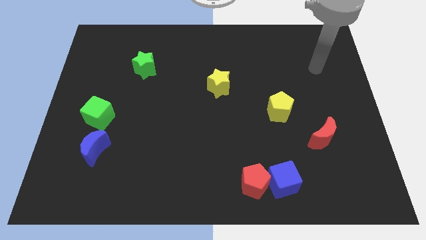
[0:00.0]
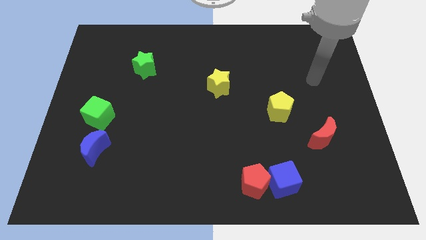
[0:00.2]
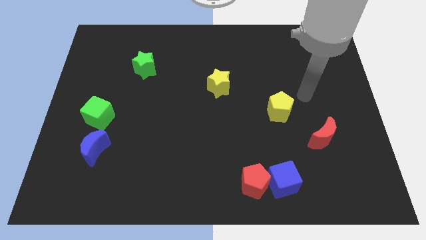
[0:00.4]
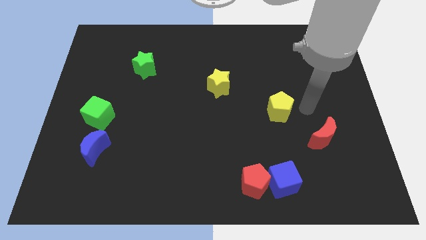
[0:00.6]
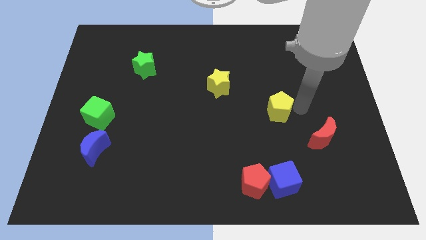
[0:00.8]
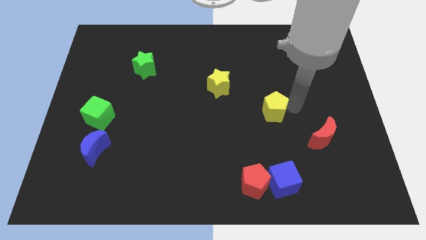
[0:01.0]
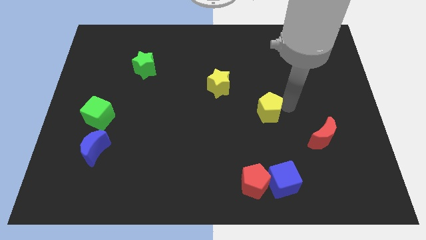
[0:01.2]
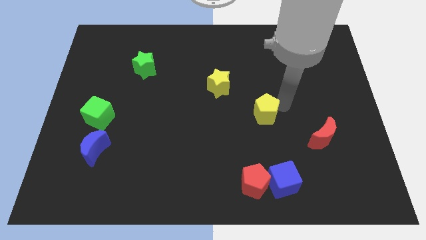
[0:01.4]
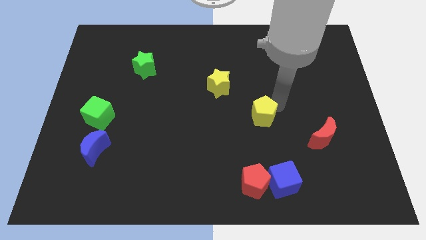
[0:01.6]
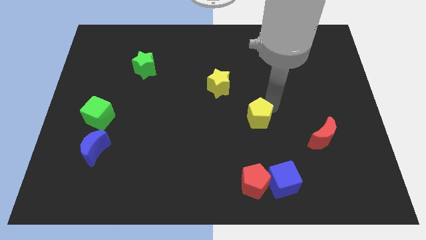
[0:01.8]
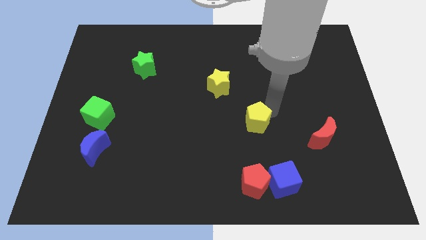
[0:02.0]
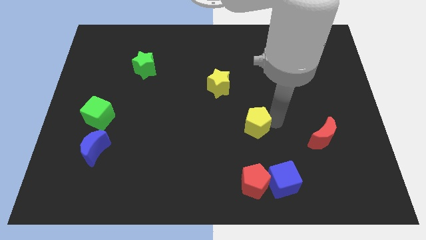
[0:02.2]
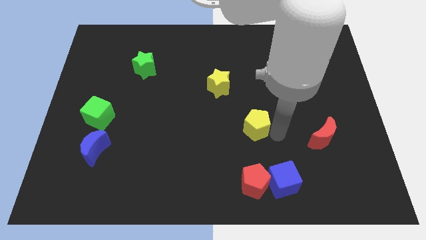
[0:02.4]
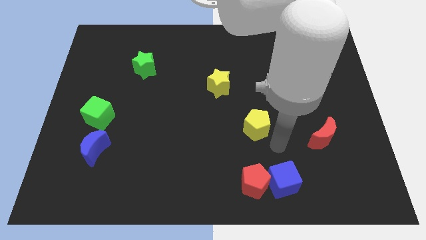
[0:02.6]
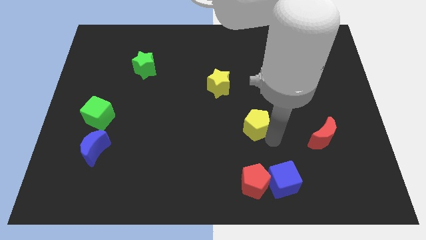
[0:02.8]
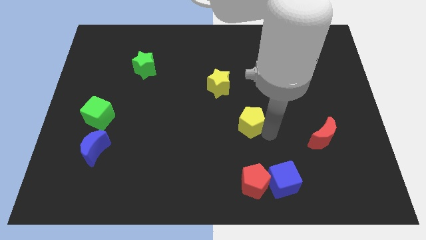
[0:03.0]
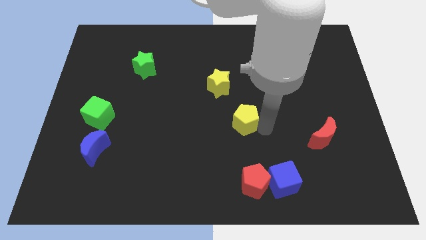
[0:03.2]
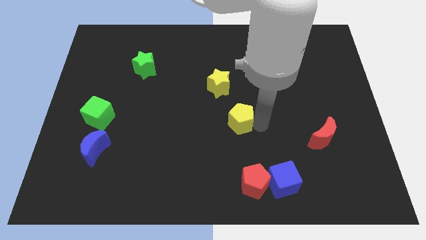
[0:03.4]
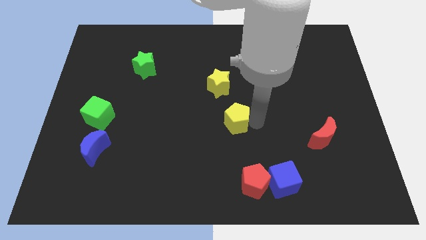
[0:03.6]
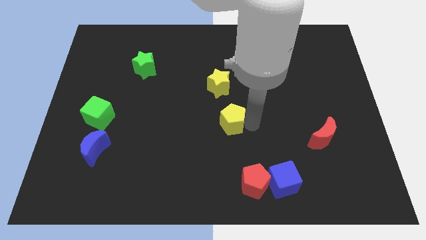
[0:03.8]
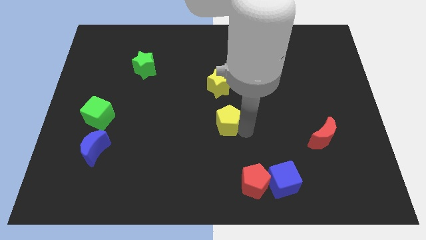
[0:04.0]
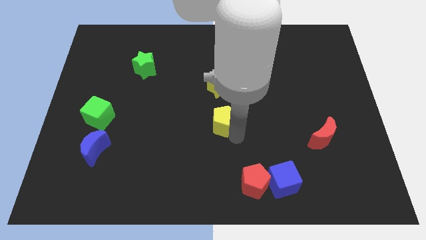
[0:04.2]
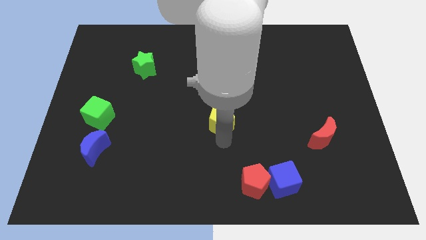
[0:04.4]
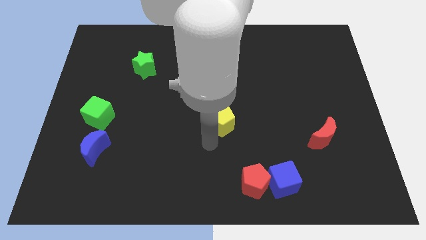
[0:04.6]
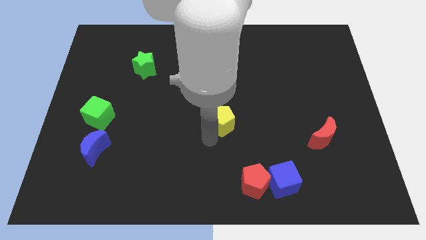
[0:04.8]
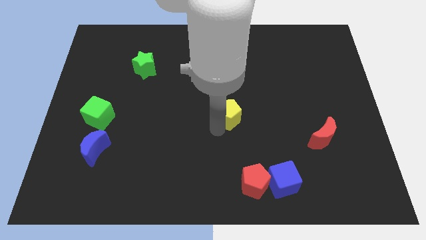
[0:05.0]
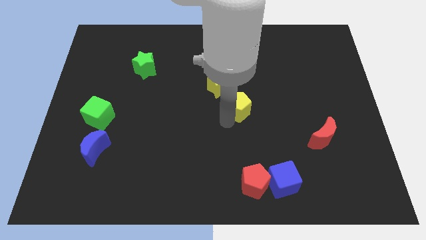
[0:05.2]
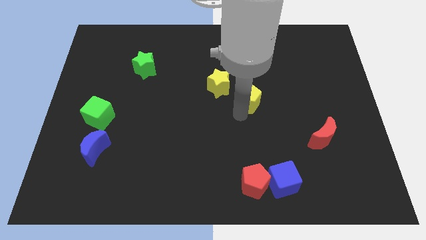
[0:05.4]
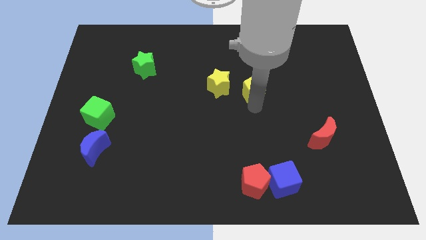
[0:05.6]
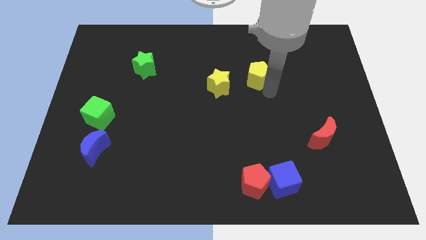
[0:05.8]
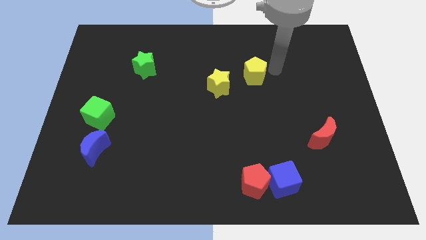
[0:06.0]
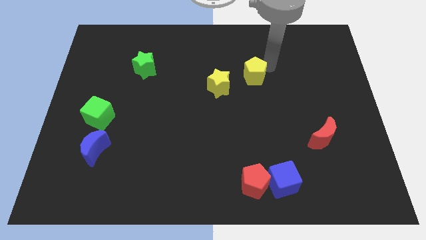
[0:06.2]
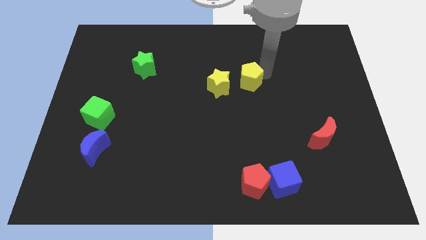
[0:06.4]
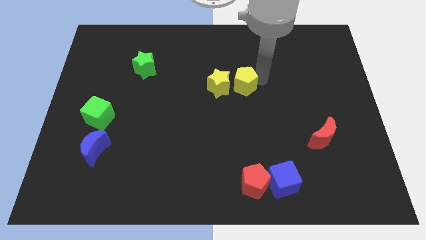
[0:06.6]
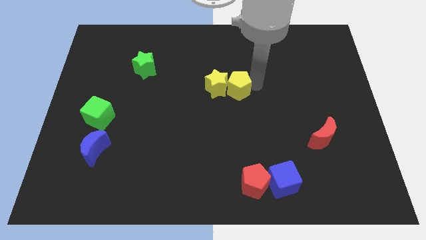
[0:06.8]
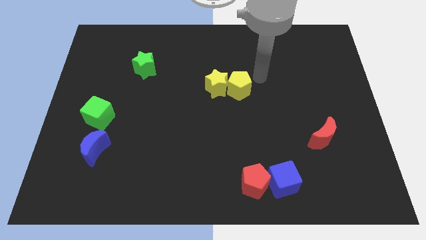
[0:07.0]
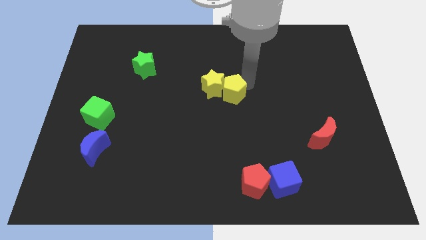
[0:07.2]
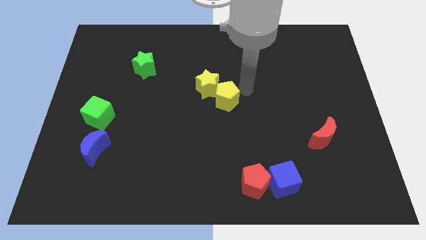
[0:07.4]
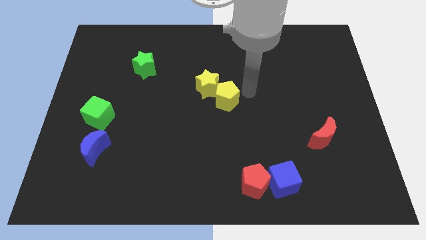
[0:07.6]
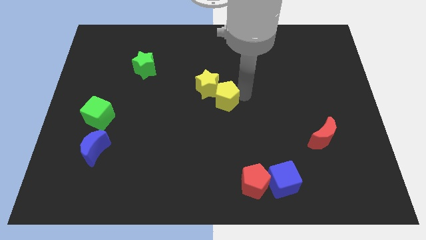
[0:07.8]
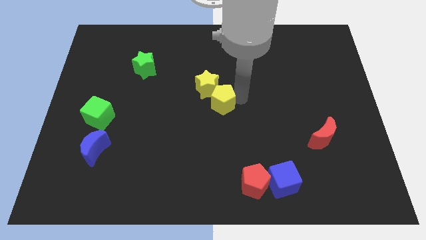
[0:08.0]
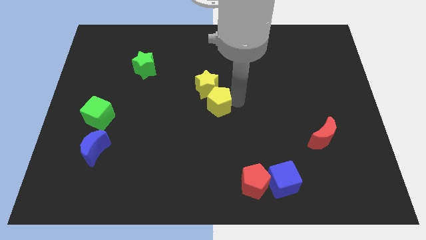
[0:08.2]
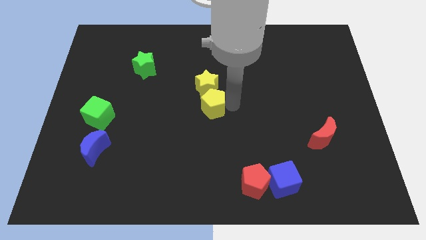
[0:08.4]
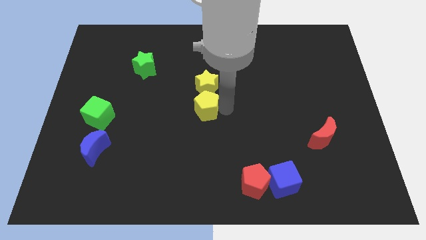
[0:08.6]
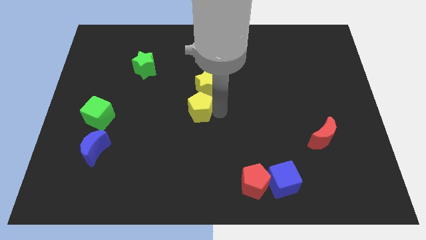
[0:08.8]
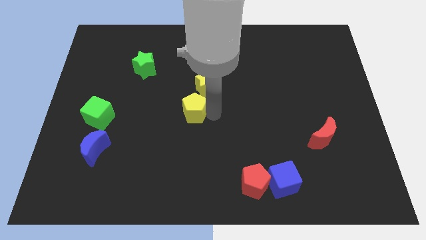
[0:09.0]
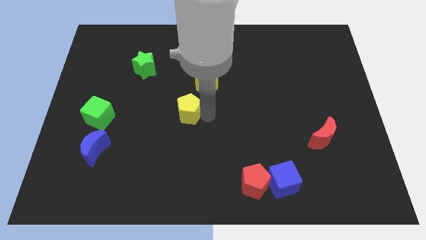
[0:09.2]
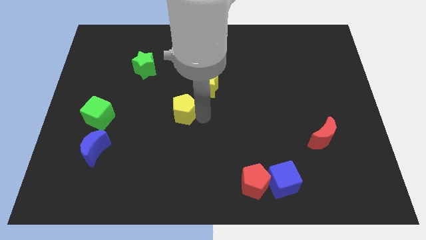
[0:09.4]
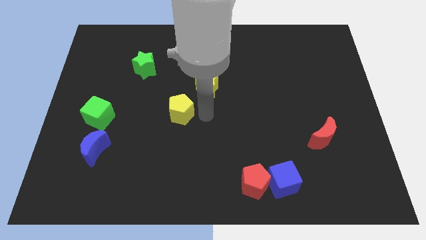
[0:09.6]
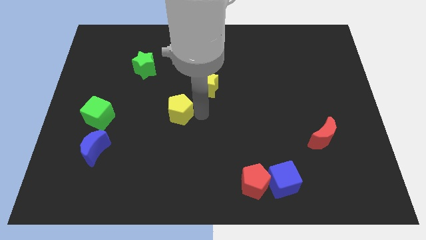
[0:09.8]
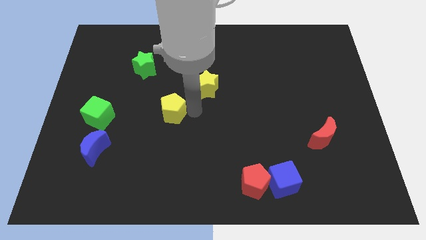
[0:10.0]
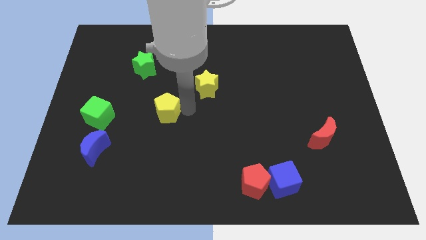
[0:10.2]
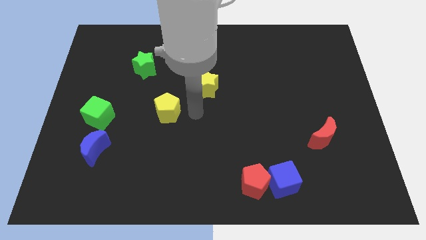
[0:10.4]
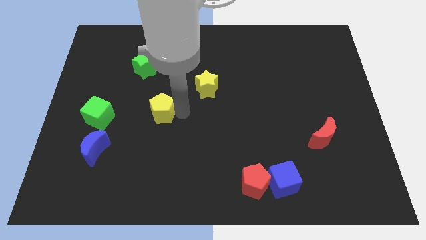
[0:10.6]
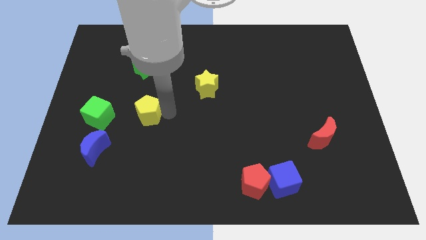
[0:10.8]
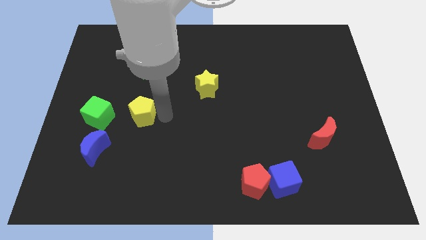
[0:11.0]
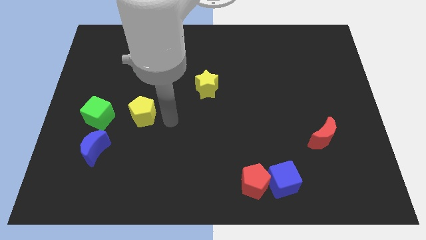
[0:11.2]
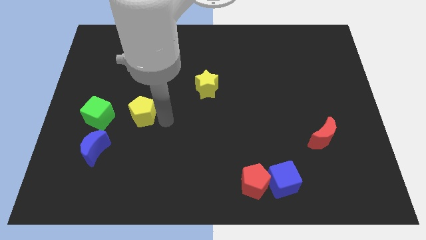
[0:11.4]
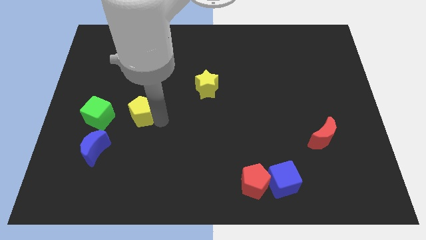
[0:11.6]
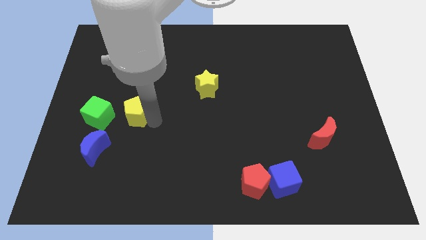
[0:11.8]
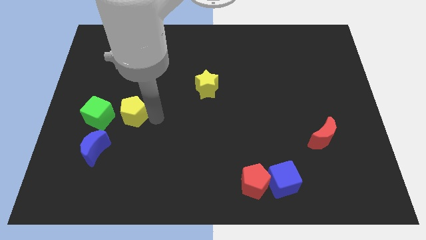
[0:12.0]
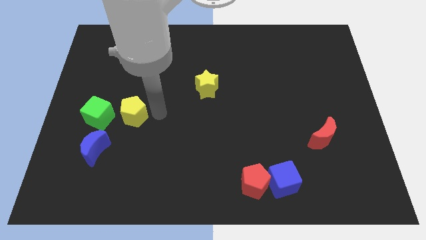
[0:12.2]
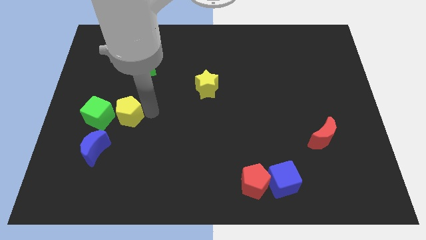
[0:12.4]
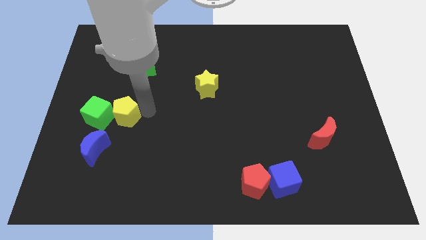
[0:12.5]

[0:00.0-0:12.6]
slide the yellow pentagon to the green cube
